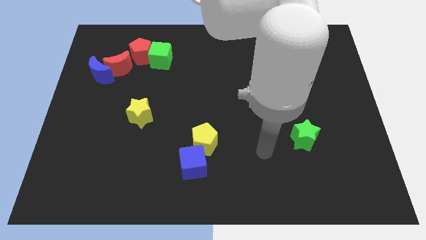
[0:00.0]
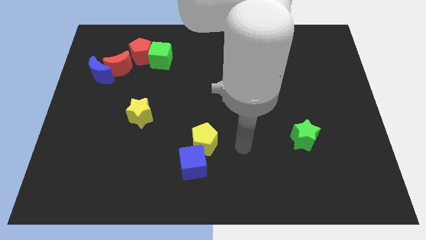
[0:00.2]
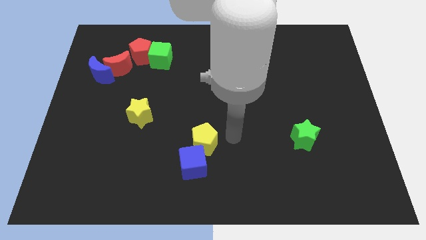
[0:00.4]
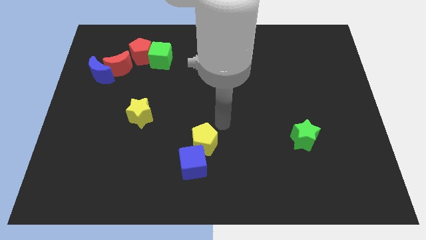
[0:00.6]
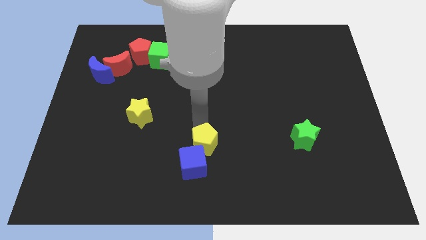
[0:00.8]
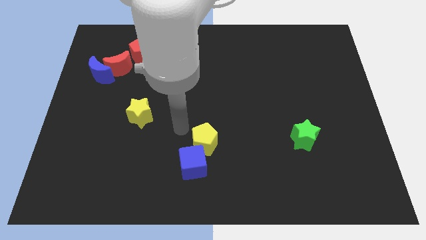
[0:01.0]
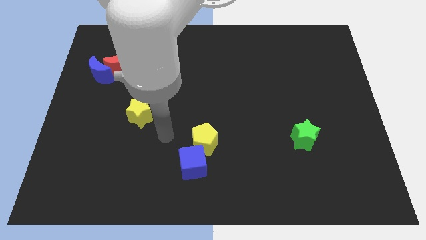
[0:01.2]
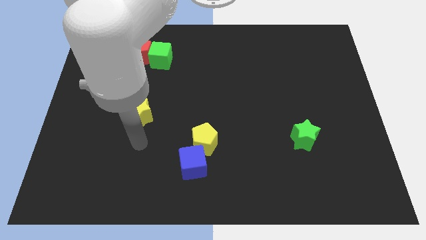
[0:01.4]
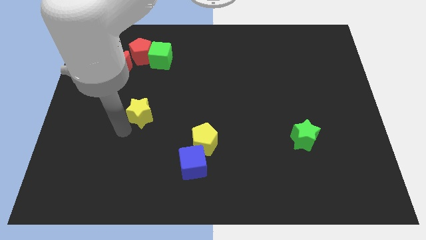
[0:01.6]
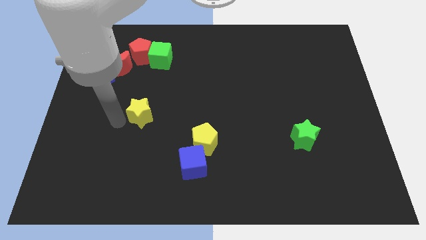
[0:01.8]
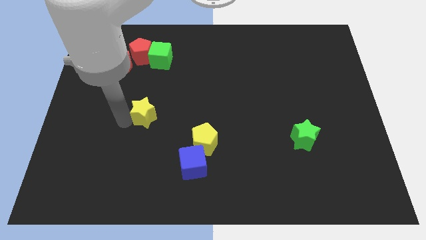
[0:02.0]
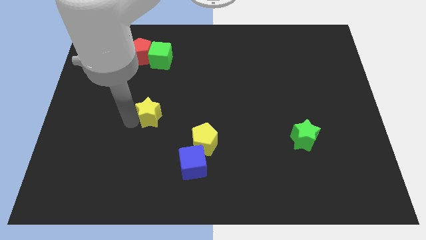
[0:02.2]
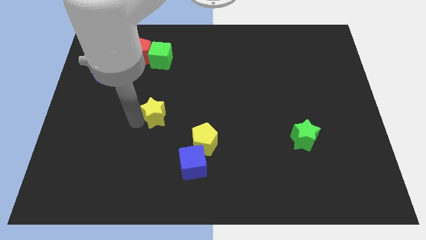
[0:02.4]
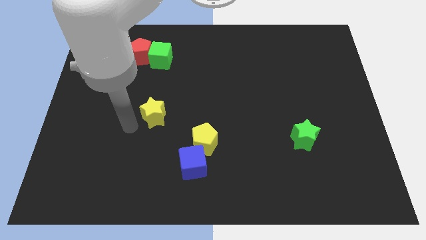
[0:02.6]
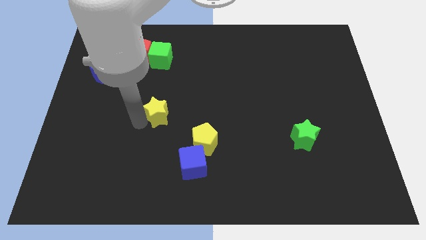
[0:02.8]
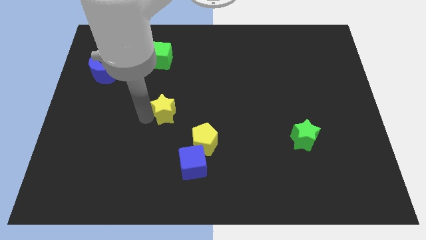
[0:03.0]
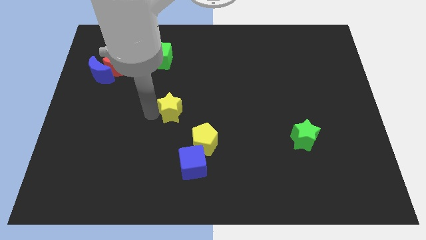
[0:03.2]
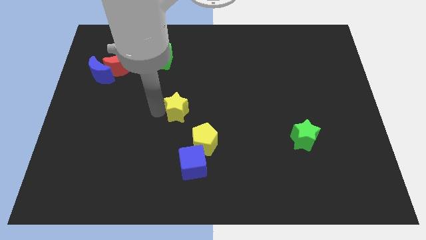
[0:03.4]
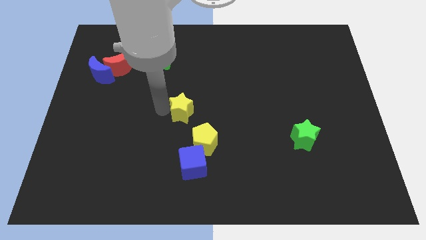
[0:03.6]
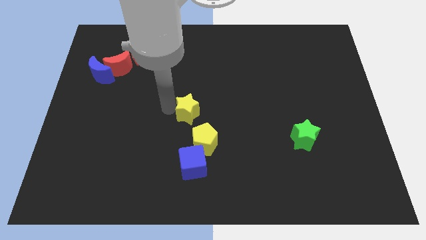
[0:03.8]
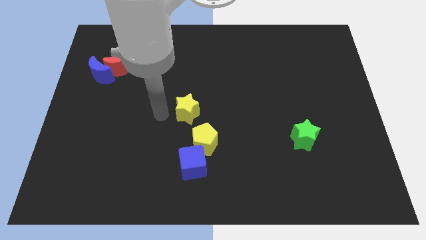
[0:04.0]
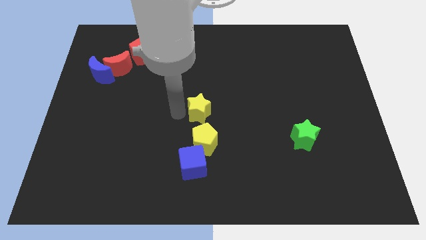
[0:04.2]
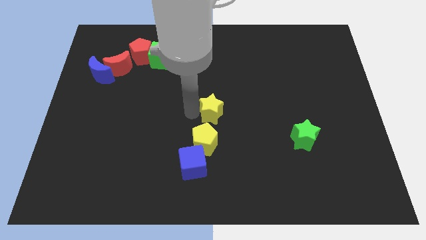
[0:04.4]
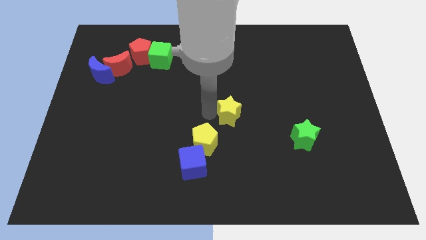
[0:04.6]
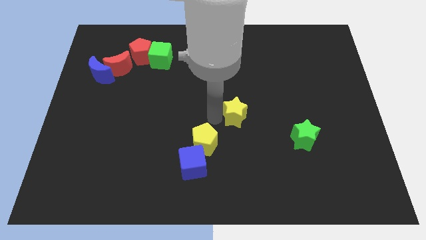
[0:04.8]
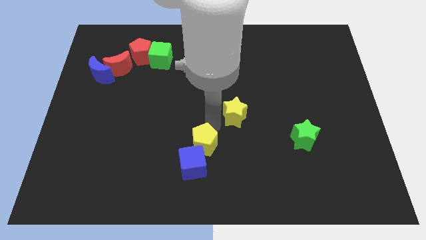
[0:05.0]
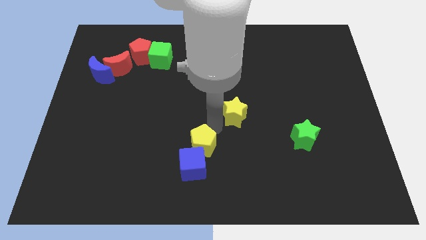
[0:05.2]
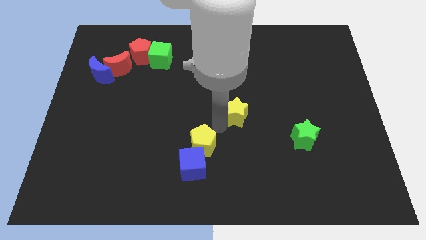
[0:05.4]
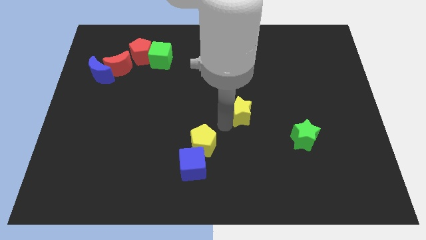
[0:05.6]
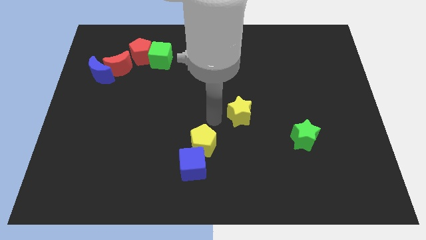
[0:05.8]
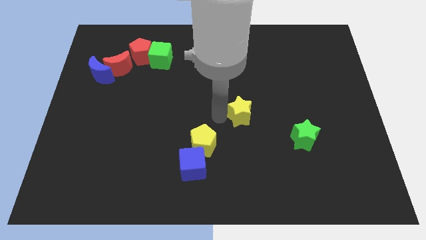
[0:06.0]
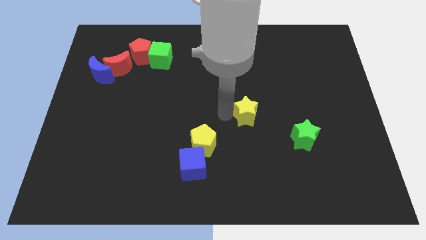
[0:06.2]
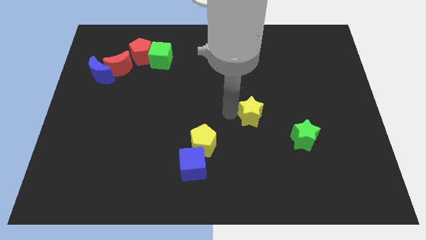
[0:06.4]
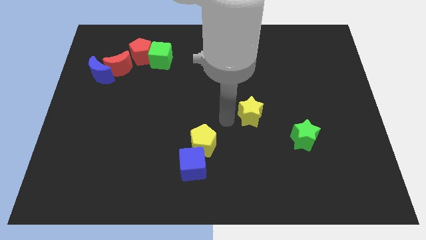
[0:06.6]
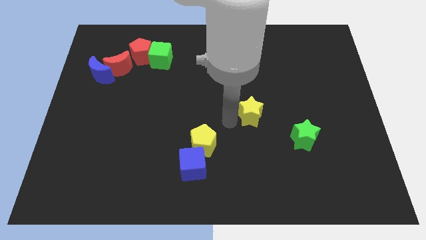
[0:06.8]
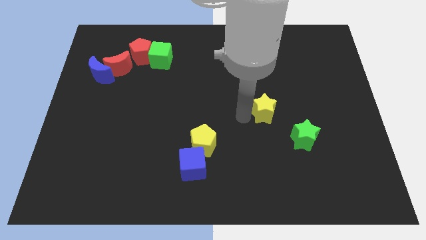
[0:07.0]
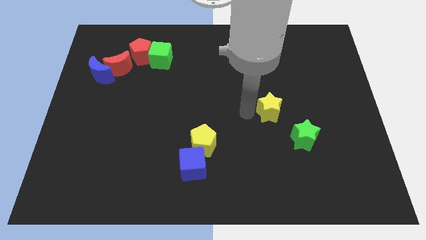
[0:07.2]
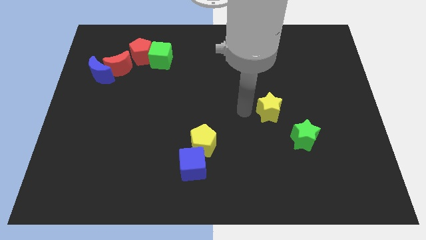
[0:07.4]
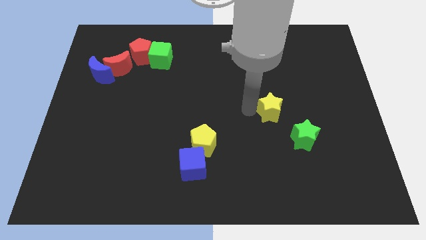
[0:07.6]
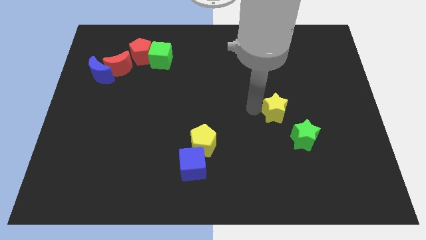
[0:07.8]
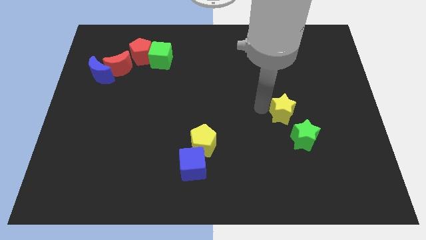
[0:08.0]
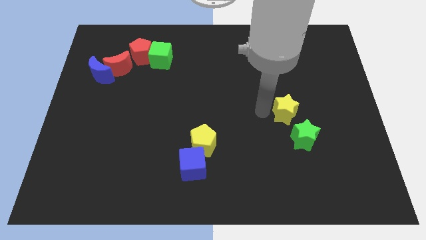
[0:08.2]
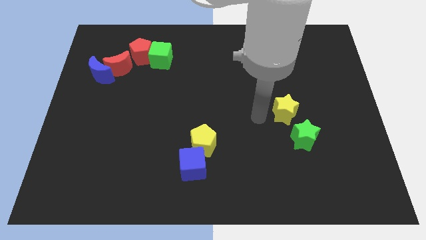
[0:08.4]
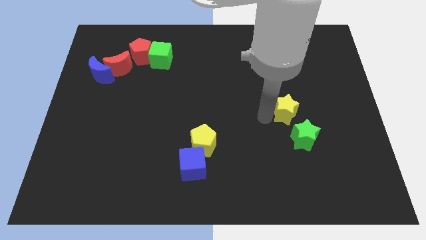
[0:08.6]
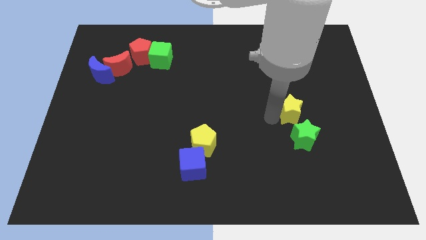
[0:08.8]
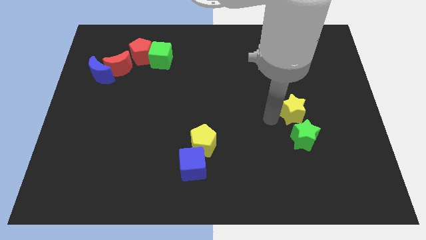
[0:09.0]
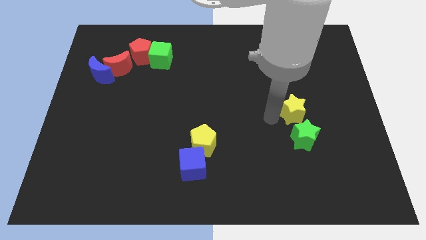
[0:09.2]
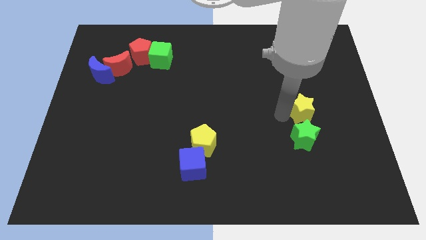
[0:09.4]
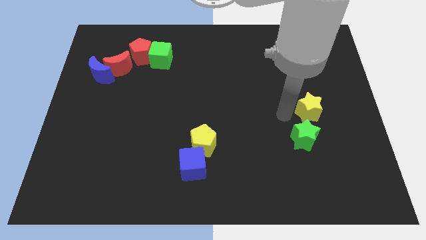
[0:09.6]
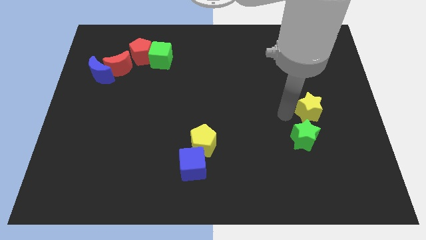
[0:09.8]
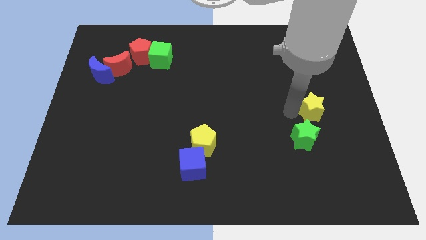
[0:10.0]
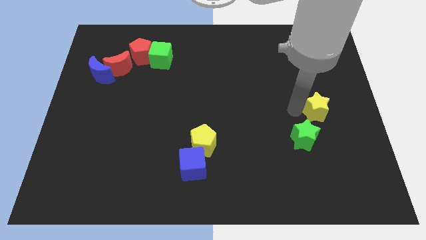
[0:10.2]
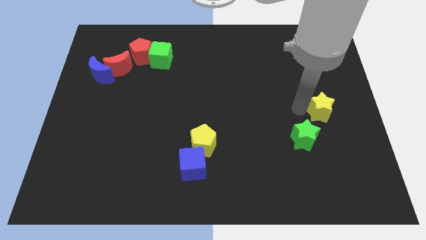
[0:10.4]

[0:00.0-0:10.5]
move the yellow star to the center right
